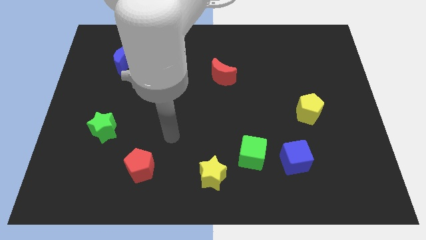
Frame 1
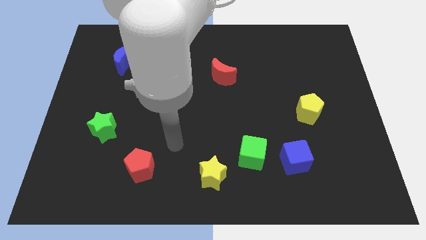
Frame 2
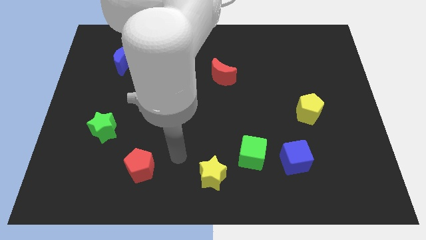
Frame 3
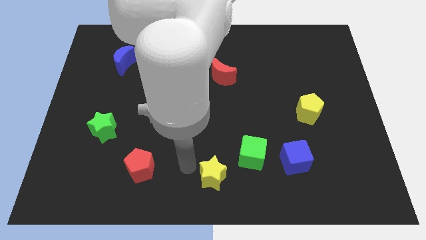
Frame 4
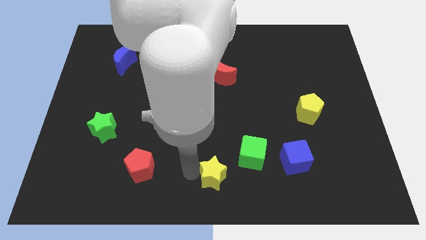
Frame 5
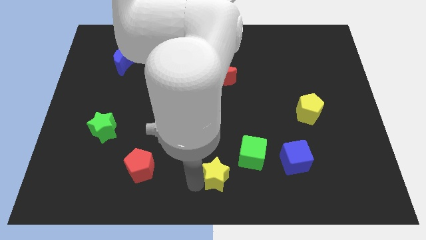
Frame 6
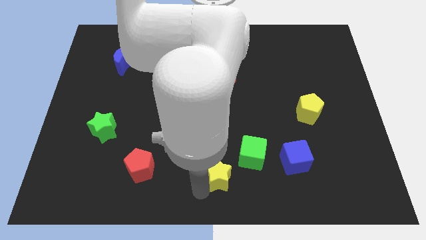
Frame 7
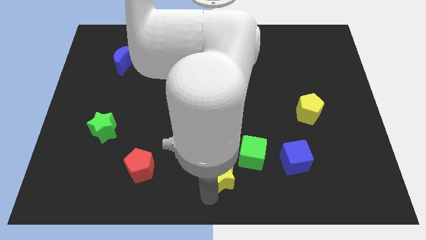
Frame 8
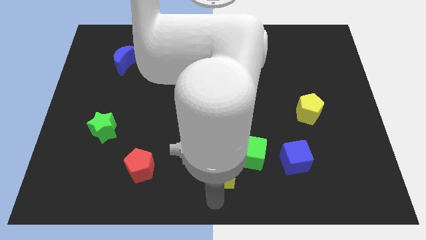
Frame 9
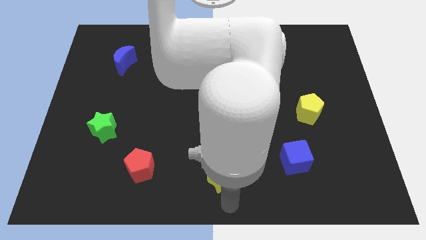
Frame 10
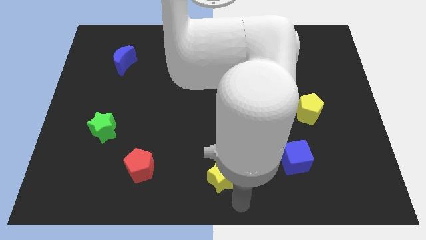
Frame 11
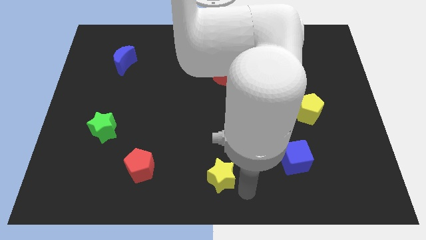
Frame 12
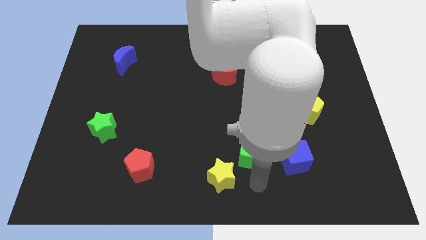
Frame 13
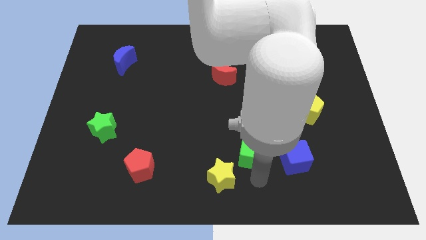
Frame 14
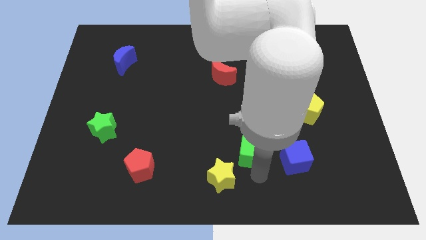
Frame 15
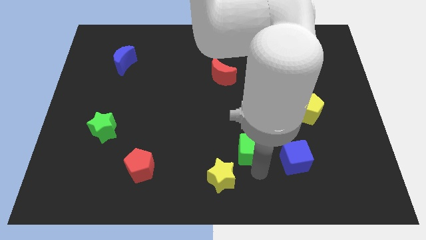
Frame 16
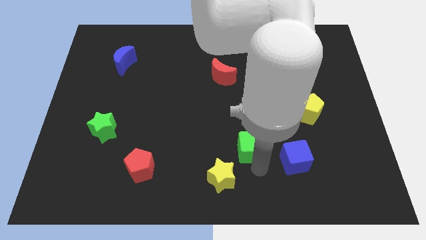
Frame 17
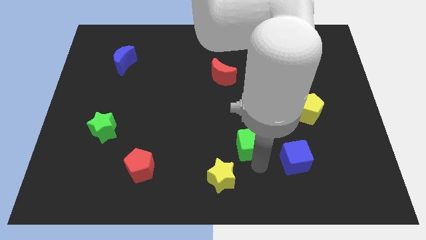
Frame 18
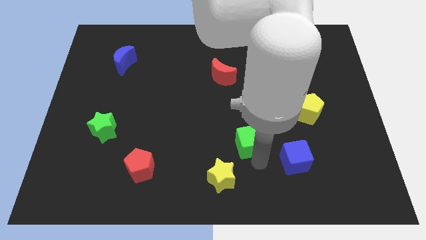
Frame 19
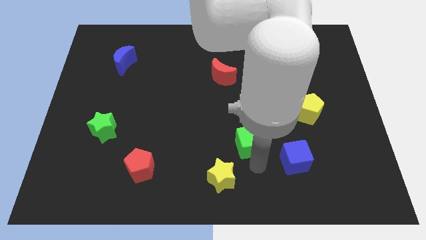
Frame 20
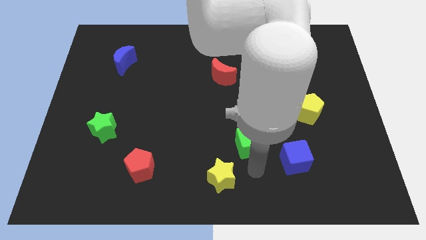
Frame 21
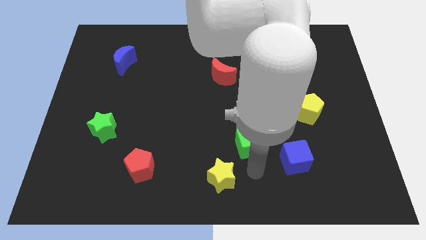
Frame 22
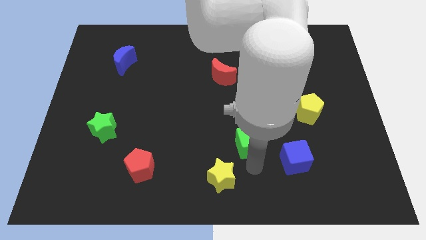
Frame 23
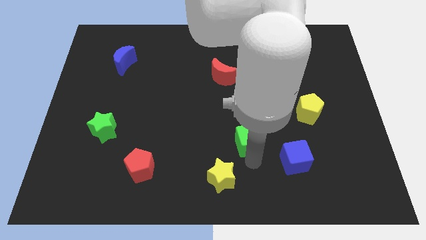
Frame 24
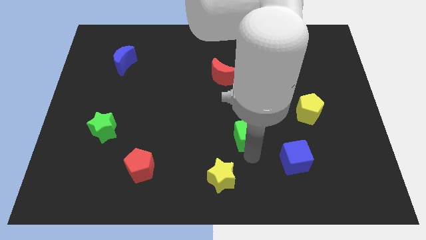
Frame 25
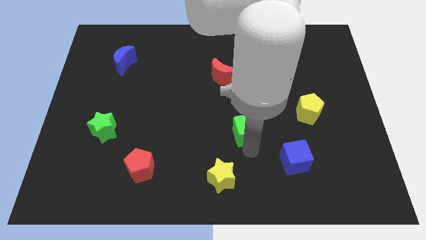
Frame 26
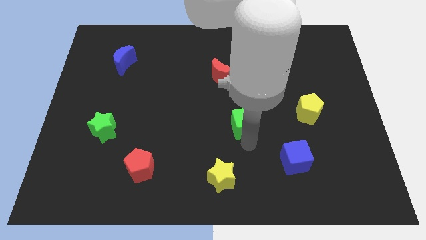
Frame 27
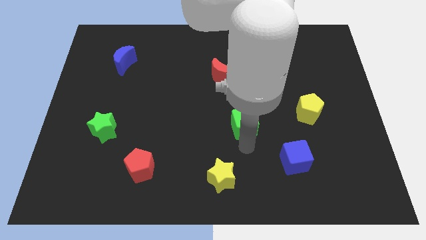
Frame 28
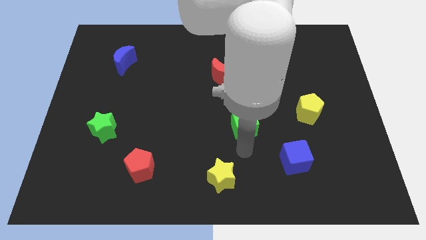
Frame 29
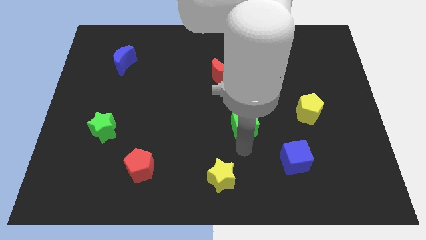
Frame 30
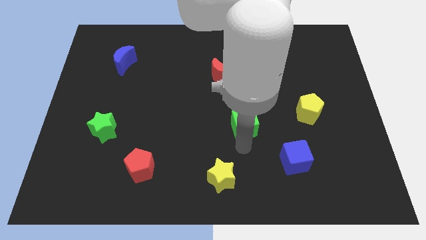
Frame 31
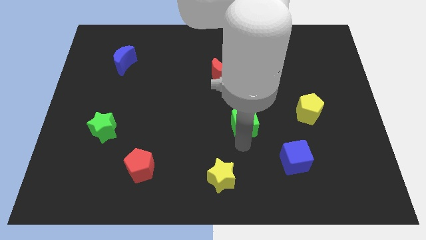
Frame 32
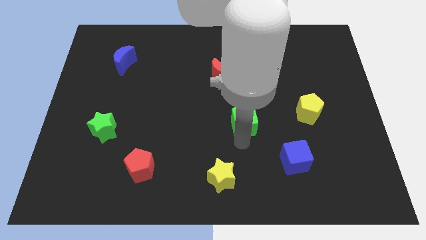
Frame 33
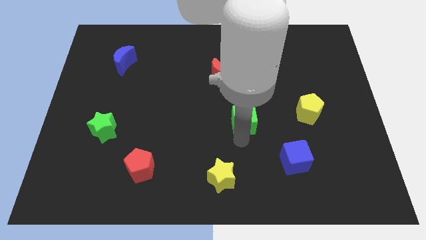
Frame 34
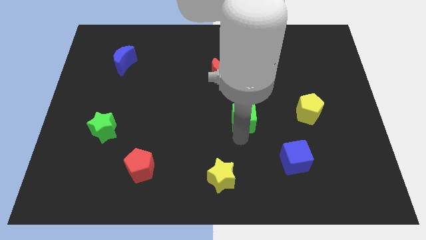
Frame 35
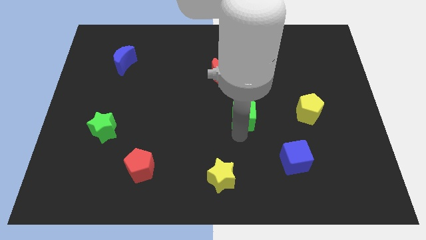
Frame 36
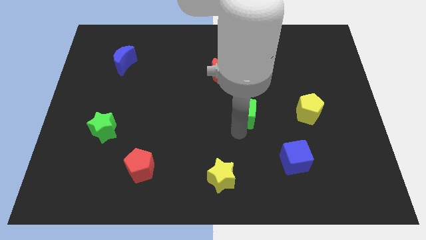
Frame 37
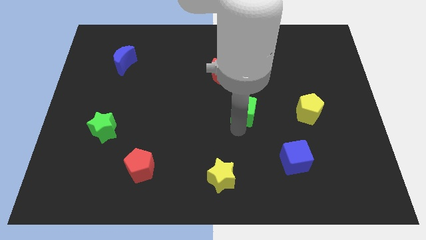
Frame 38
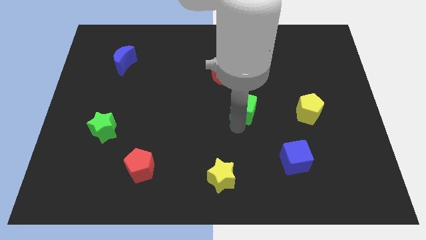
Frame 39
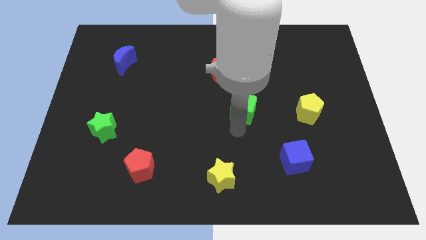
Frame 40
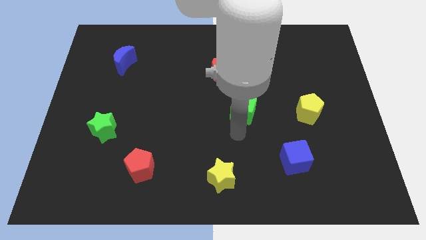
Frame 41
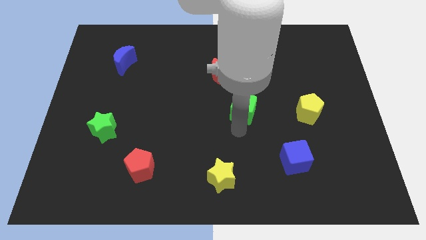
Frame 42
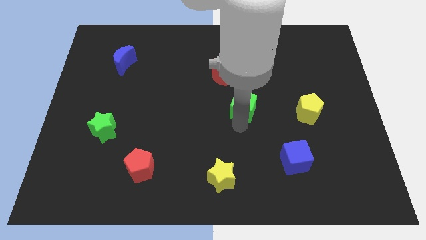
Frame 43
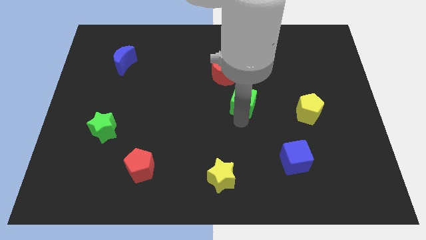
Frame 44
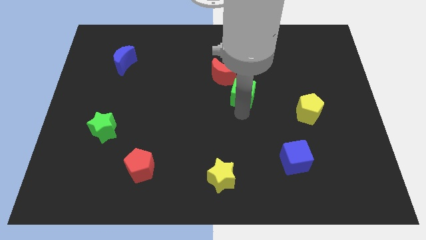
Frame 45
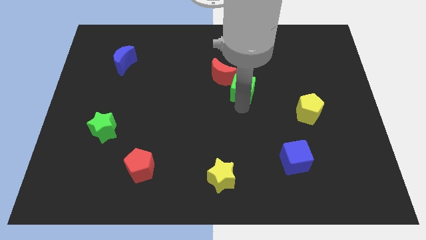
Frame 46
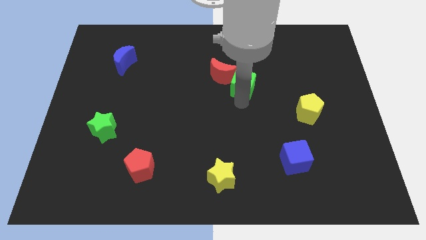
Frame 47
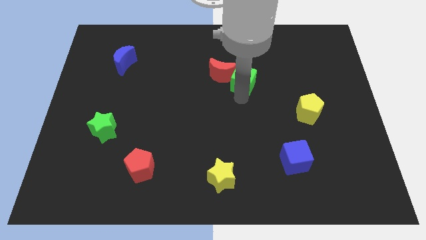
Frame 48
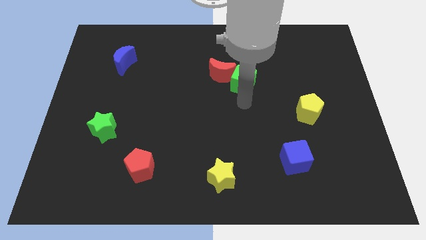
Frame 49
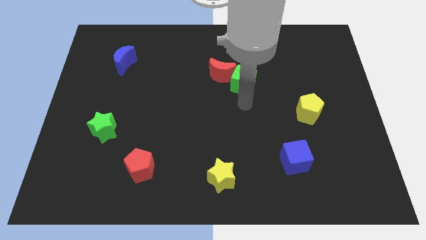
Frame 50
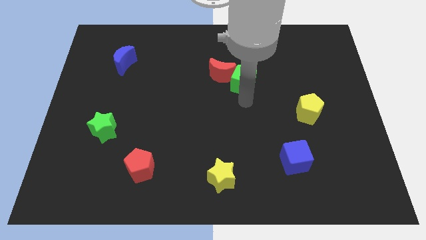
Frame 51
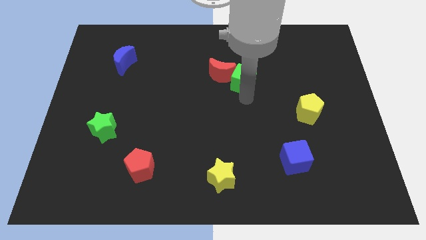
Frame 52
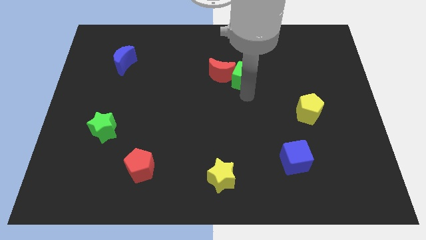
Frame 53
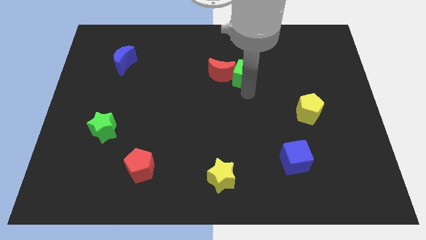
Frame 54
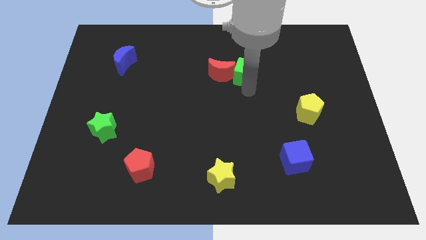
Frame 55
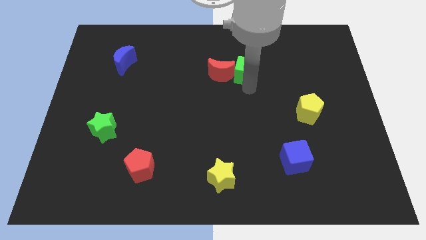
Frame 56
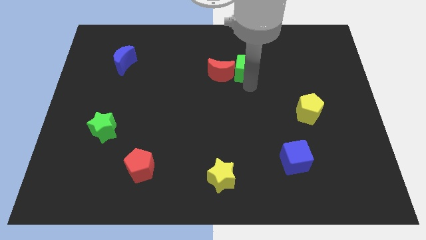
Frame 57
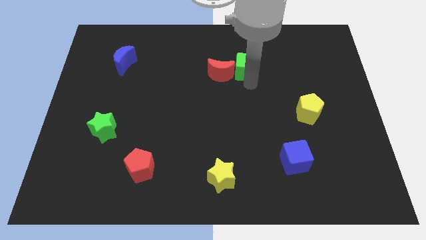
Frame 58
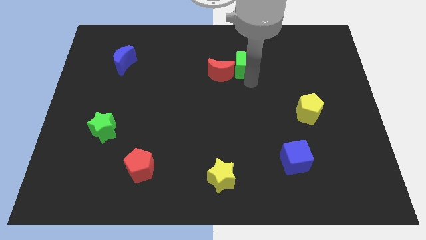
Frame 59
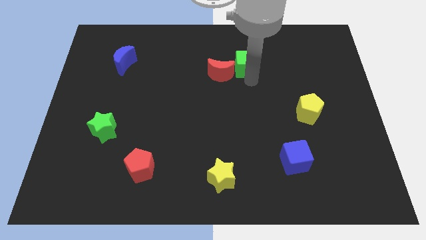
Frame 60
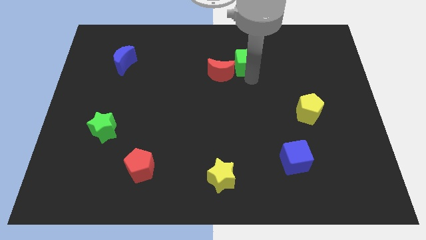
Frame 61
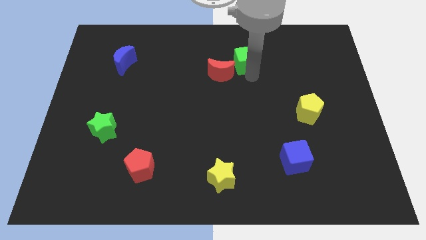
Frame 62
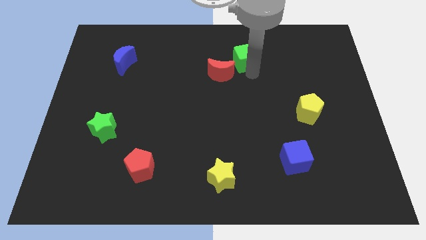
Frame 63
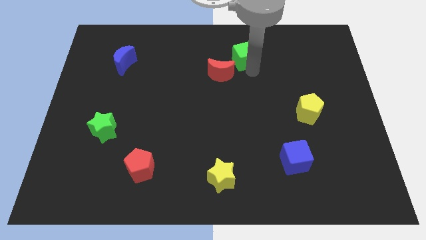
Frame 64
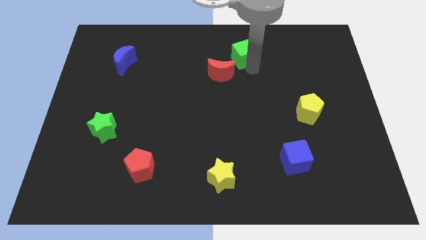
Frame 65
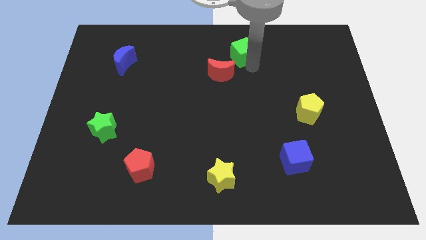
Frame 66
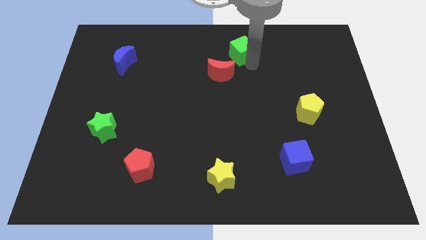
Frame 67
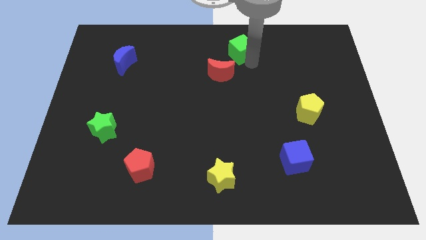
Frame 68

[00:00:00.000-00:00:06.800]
move the green cube to the top
